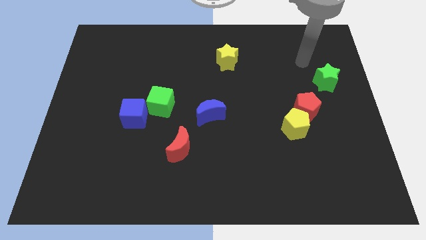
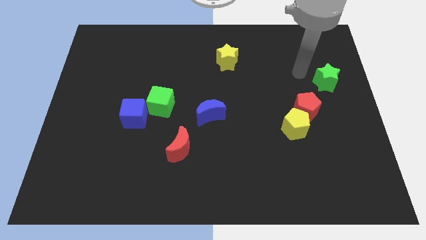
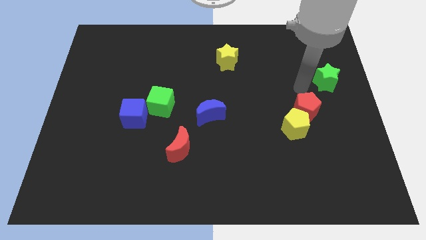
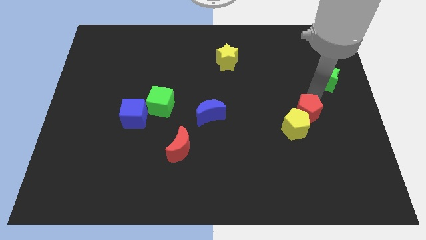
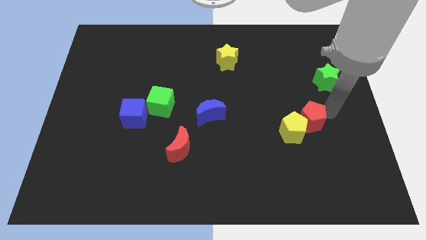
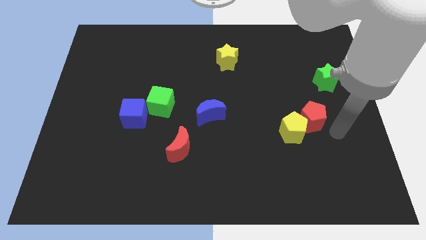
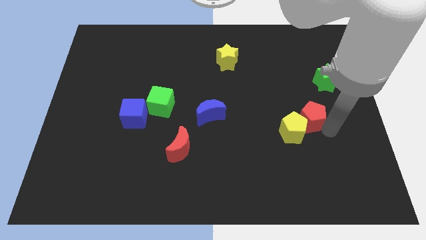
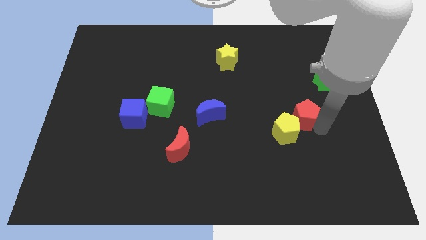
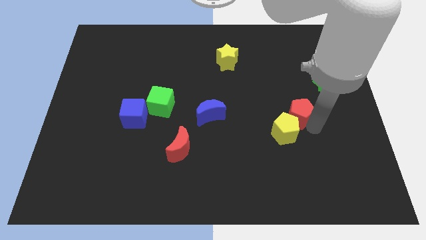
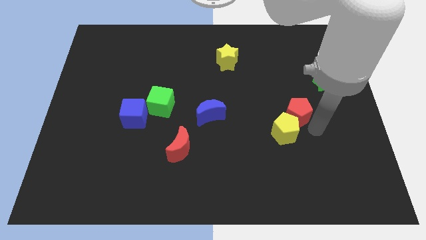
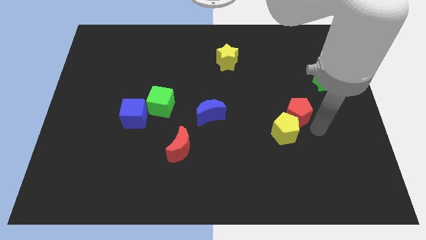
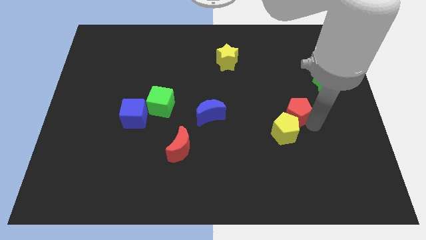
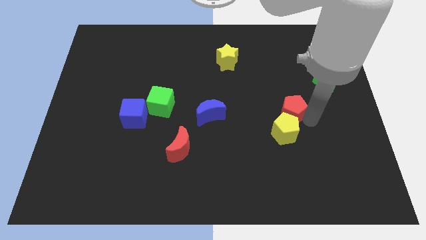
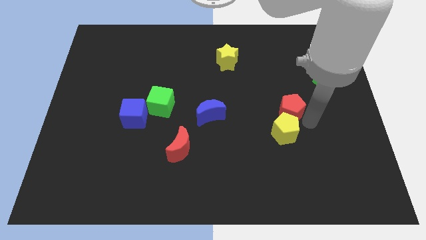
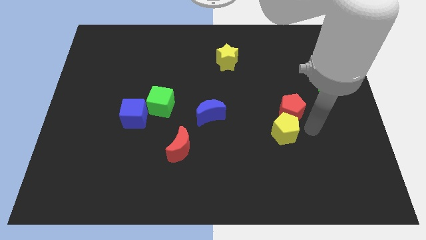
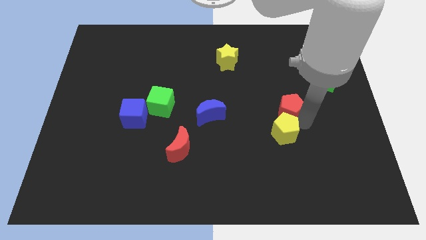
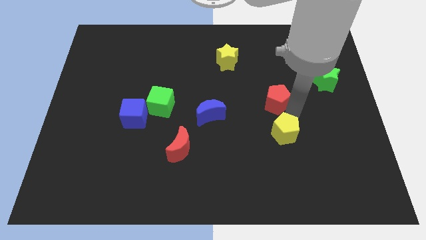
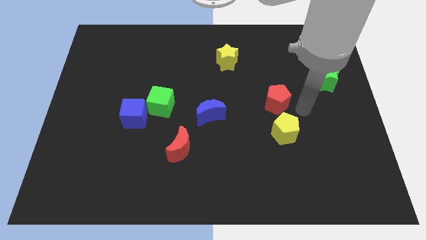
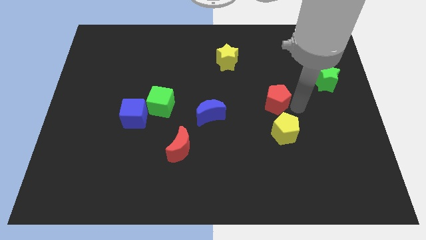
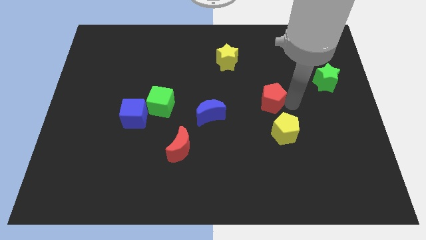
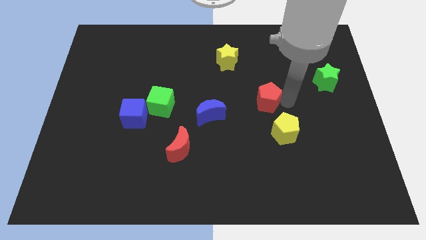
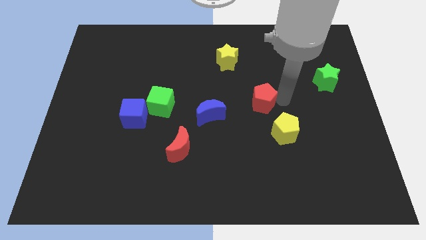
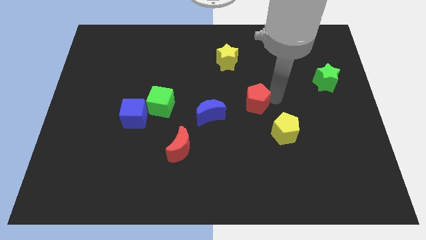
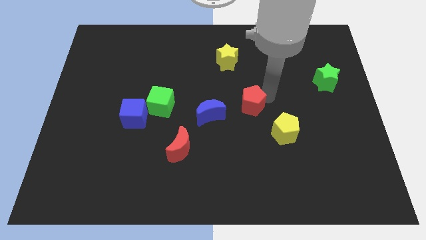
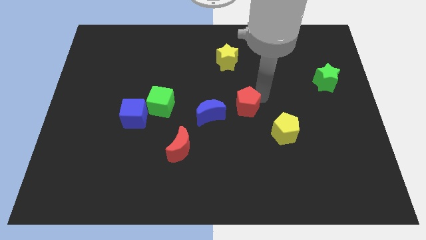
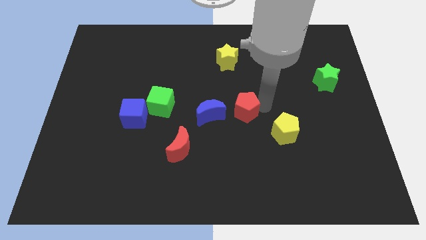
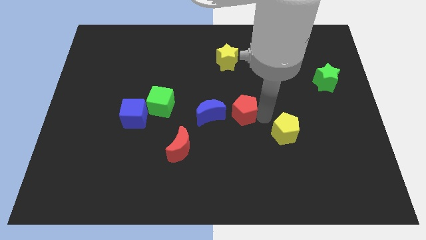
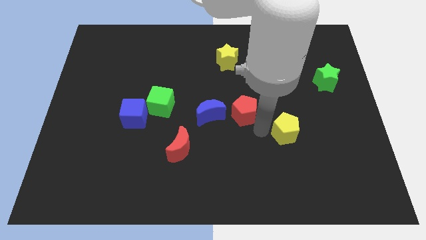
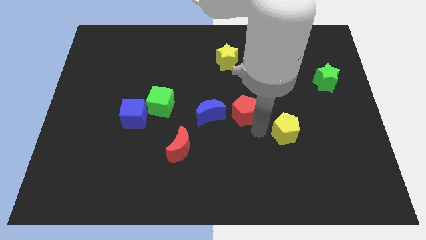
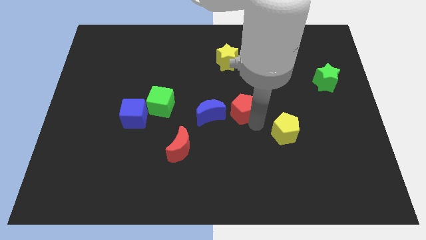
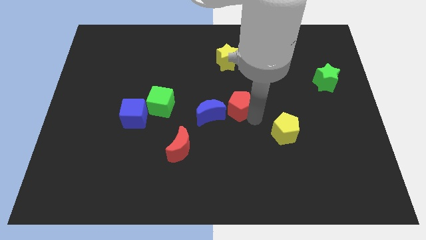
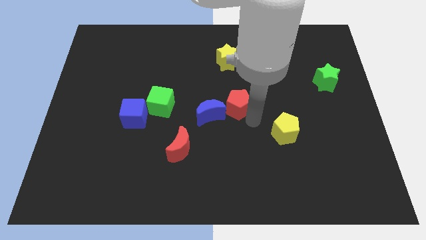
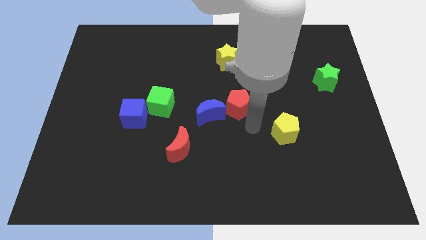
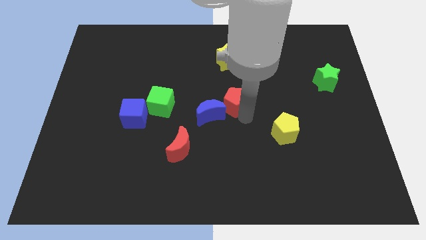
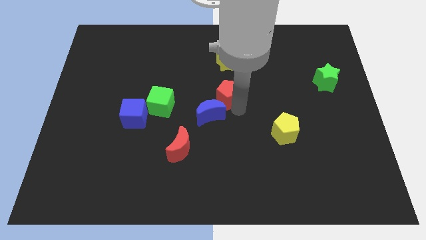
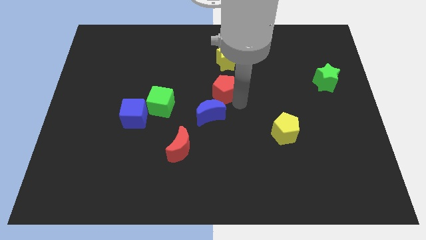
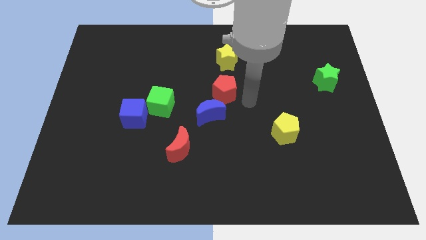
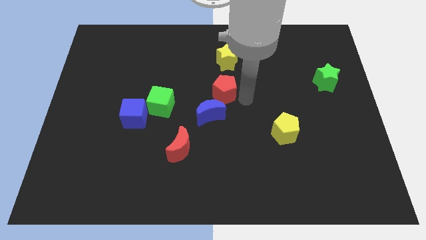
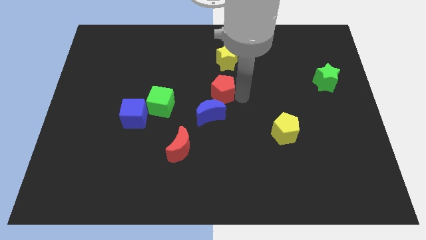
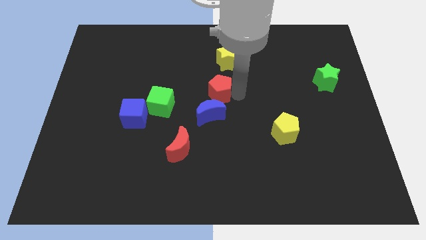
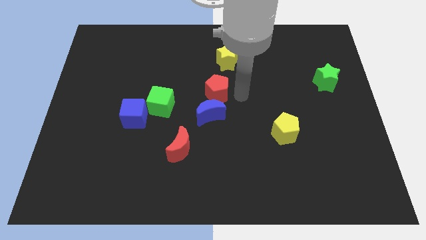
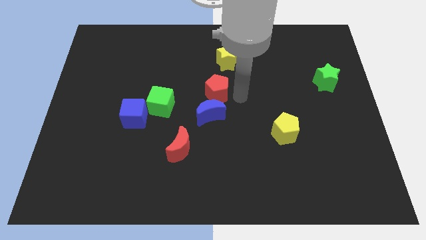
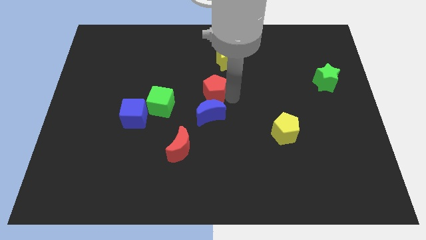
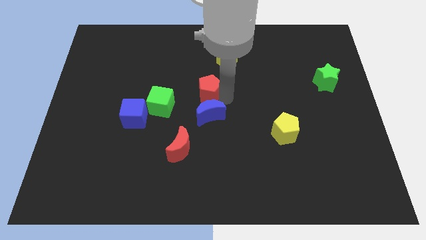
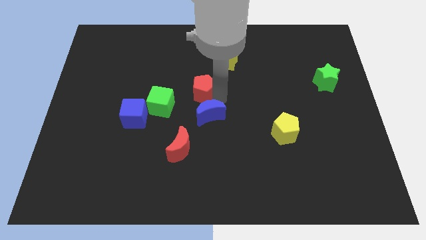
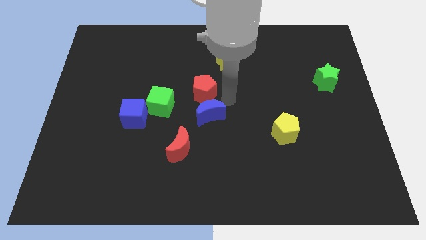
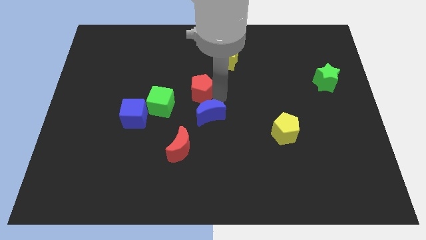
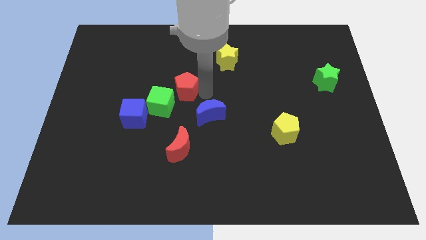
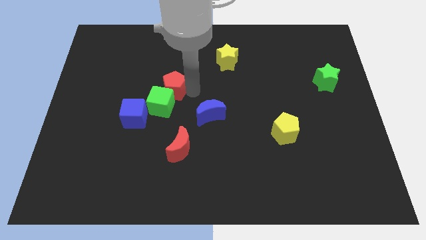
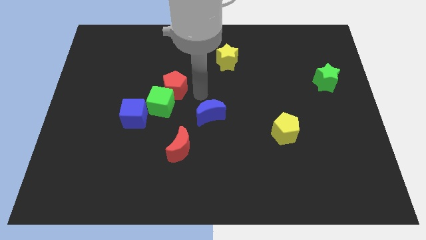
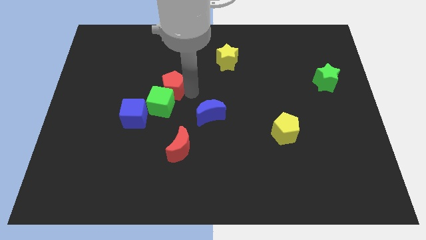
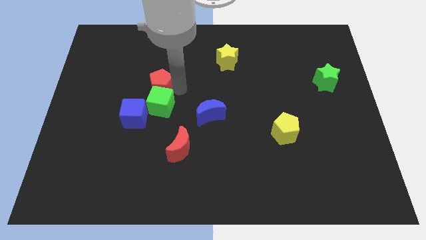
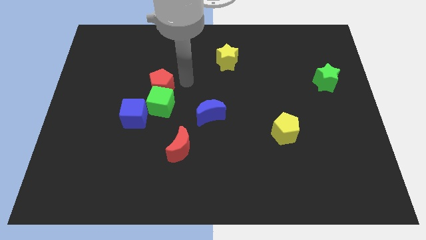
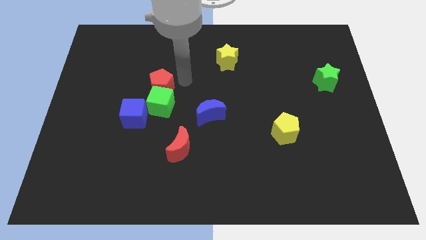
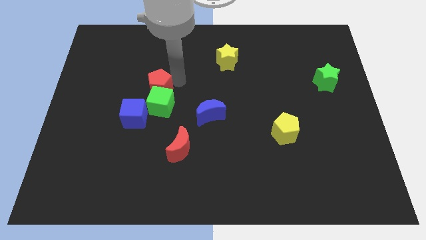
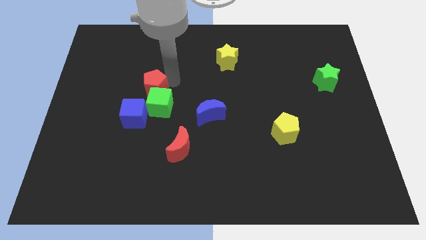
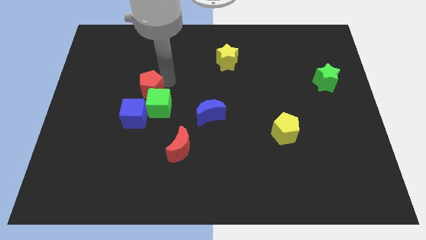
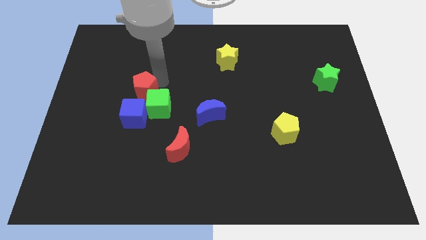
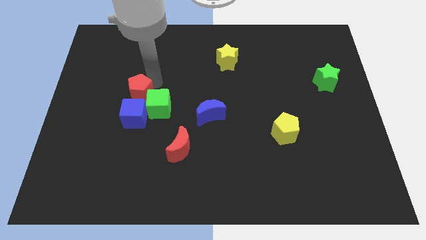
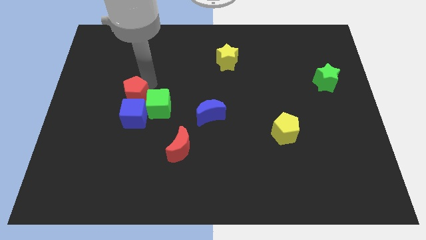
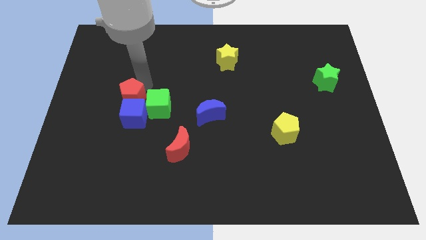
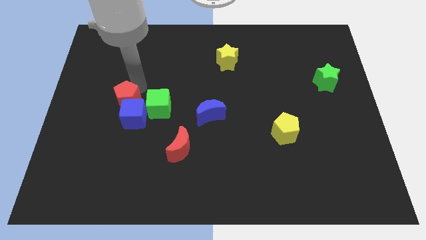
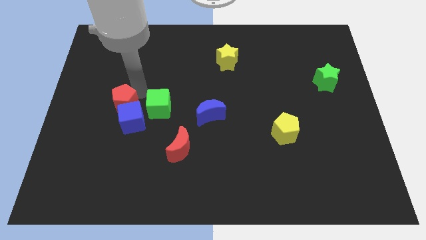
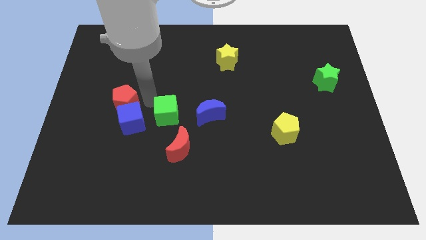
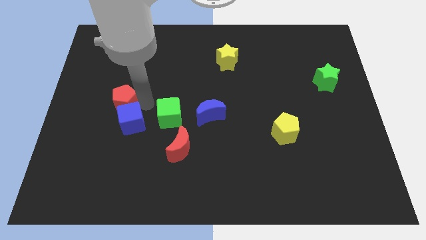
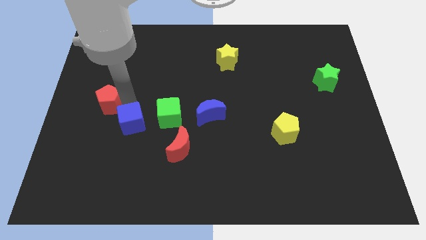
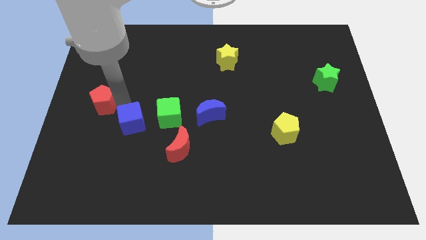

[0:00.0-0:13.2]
move the red pentagon to the left side of the board
